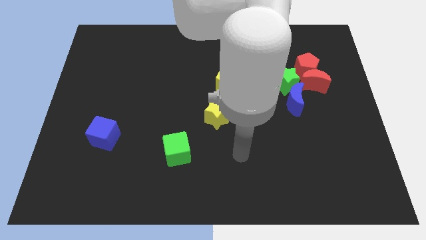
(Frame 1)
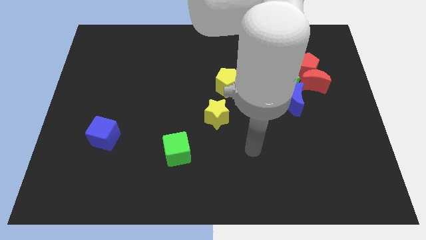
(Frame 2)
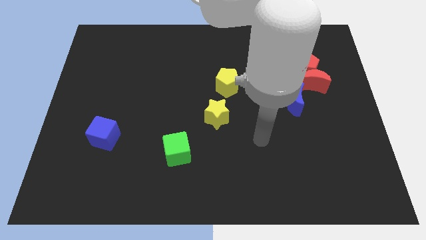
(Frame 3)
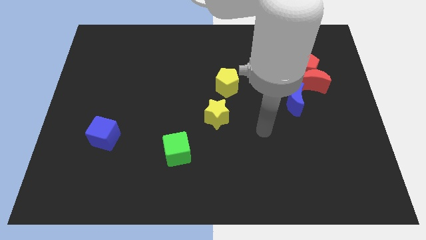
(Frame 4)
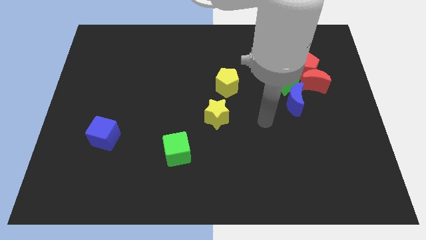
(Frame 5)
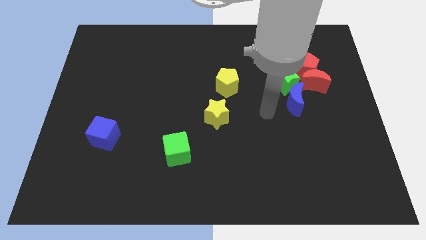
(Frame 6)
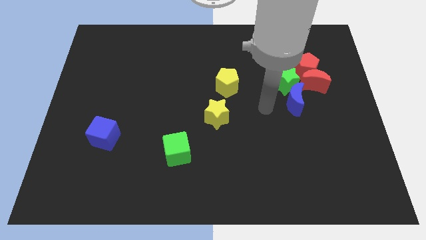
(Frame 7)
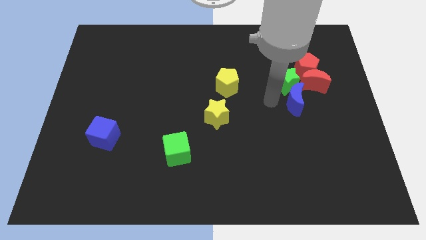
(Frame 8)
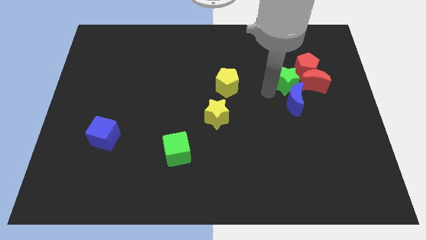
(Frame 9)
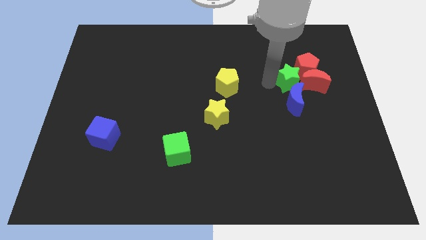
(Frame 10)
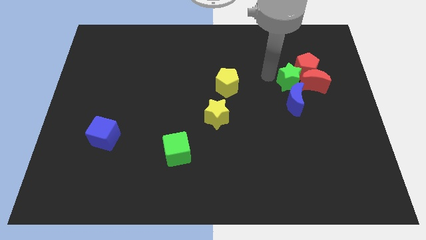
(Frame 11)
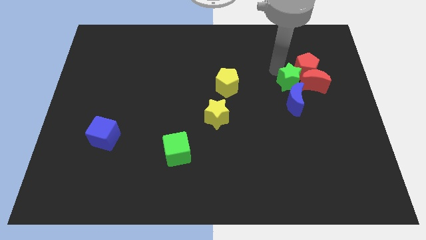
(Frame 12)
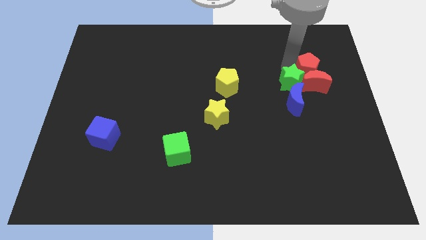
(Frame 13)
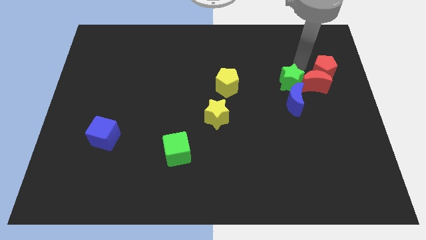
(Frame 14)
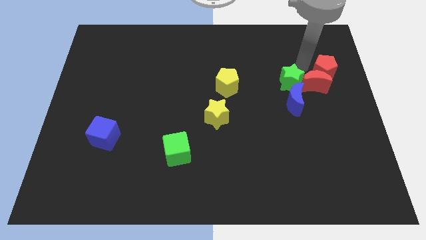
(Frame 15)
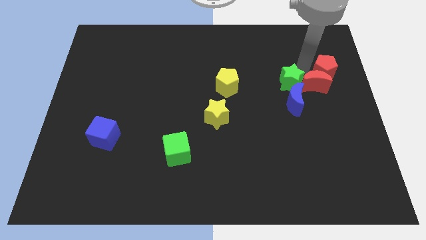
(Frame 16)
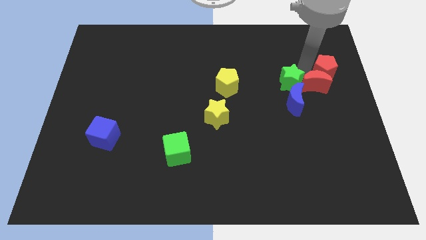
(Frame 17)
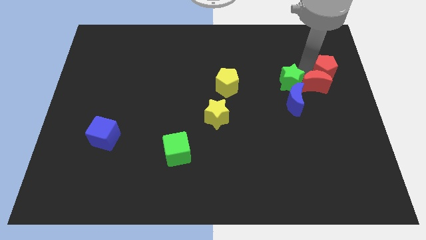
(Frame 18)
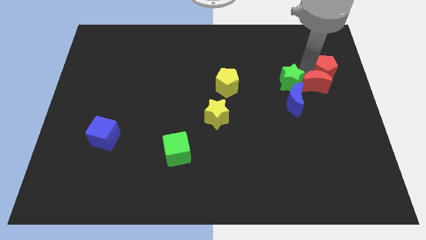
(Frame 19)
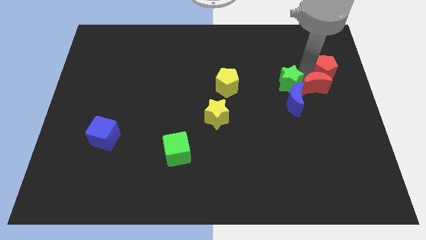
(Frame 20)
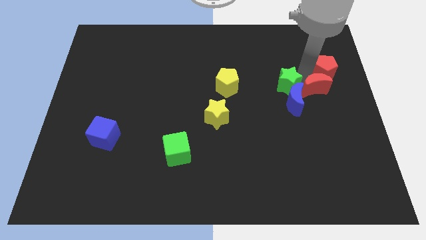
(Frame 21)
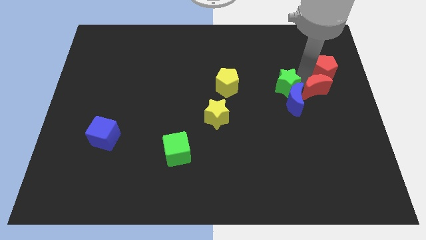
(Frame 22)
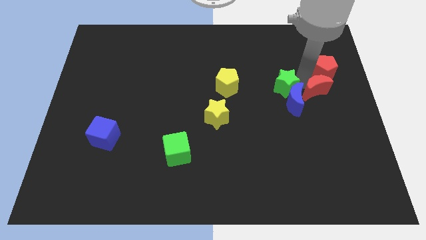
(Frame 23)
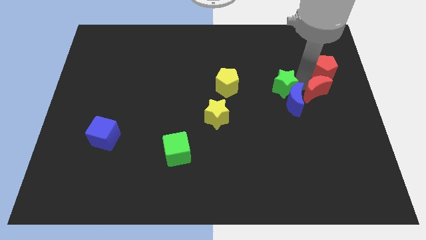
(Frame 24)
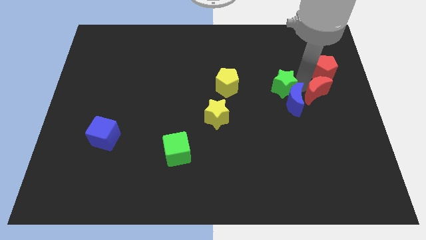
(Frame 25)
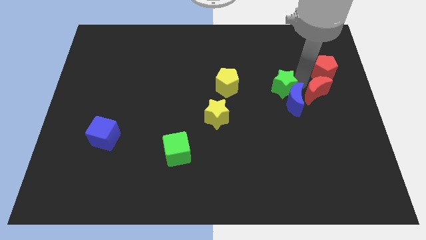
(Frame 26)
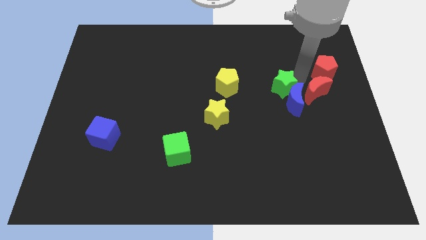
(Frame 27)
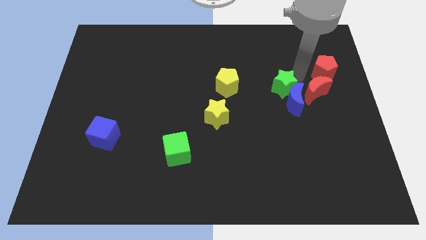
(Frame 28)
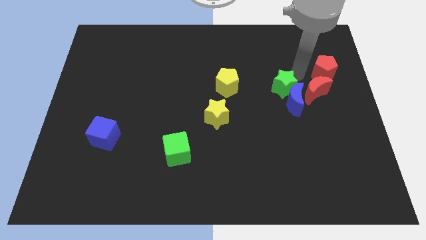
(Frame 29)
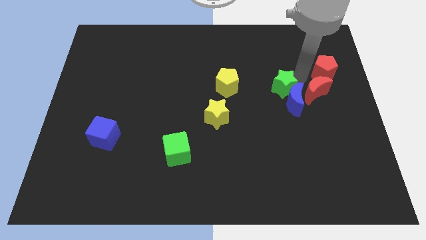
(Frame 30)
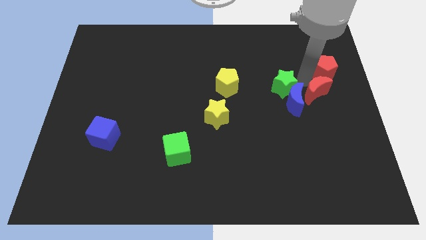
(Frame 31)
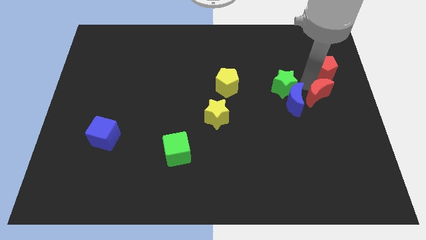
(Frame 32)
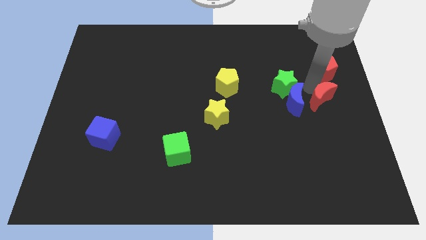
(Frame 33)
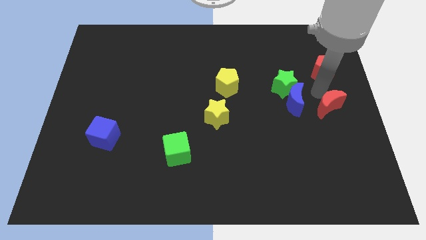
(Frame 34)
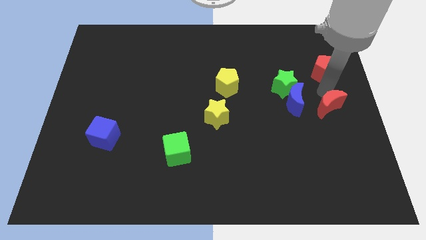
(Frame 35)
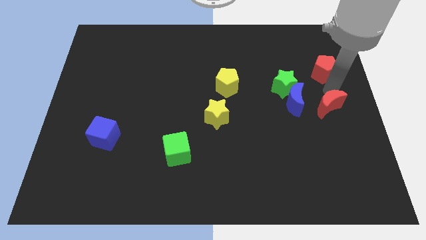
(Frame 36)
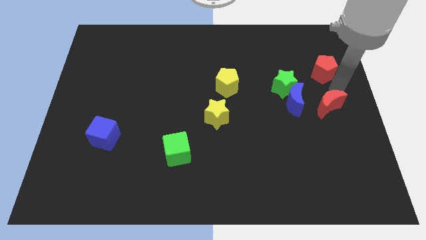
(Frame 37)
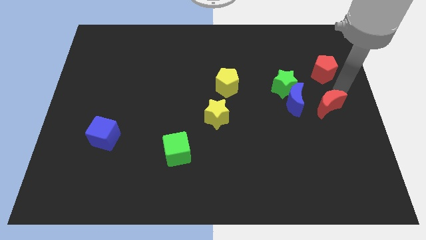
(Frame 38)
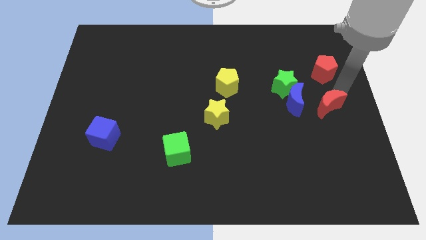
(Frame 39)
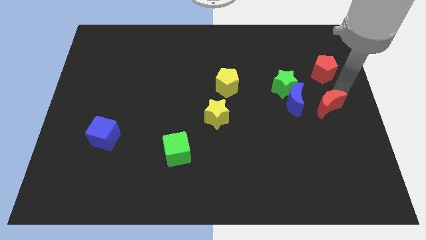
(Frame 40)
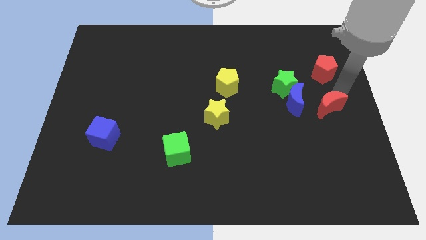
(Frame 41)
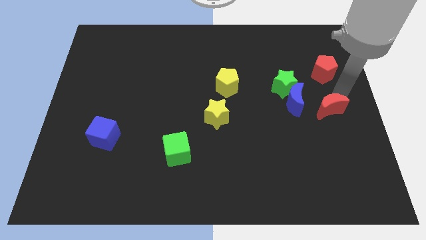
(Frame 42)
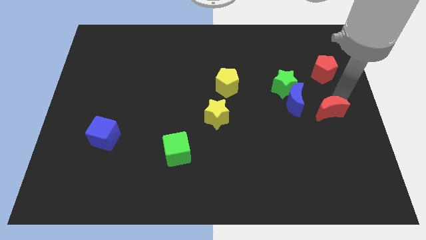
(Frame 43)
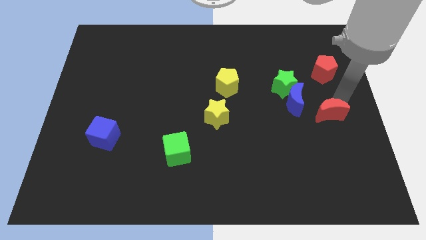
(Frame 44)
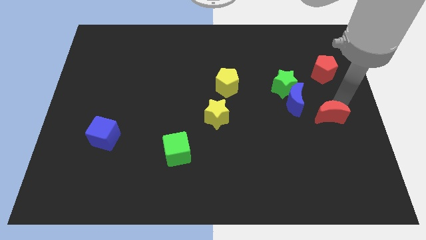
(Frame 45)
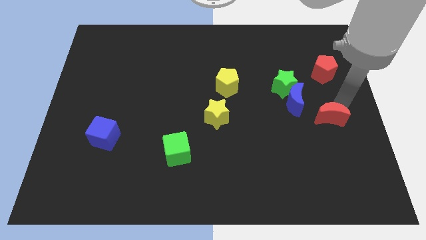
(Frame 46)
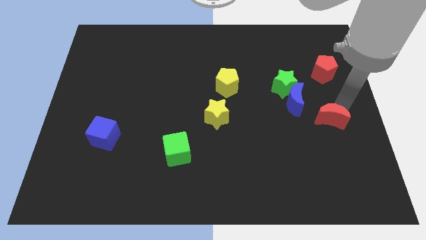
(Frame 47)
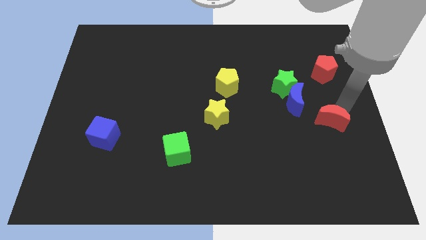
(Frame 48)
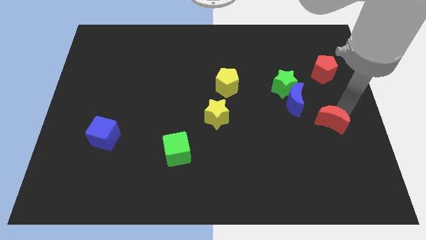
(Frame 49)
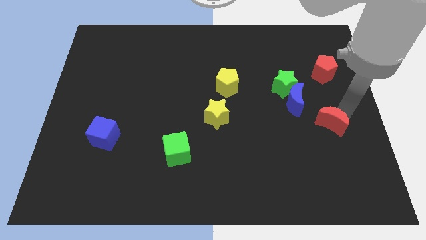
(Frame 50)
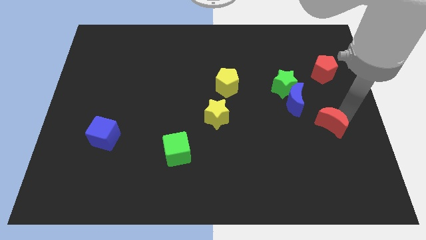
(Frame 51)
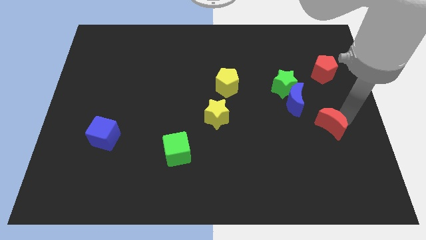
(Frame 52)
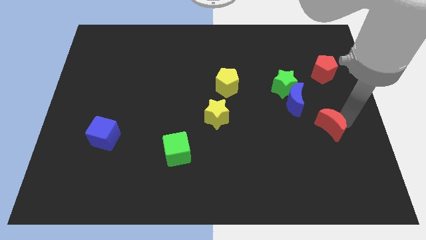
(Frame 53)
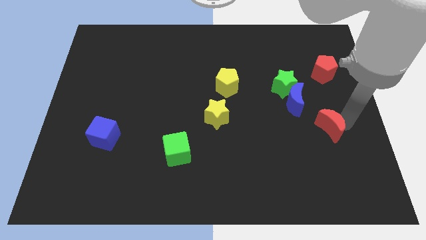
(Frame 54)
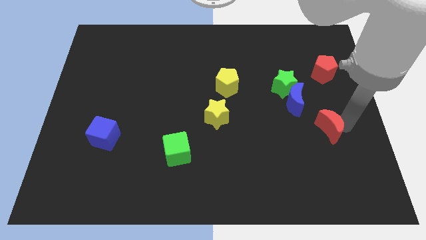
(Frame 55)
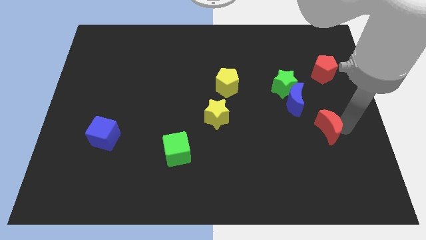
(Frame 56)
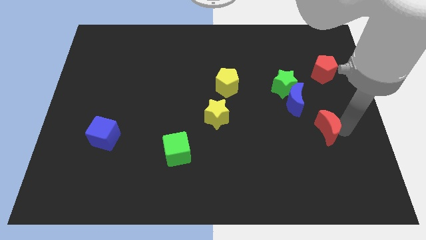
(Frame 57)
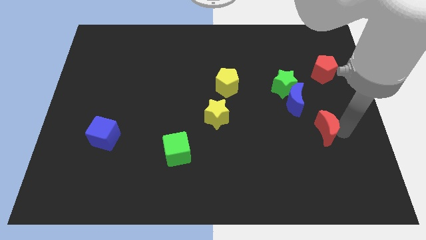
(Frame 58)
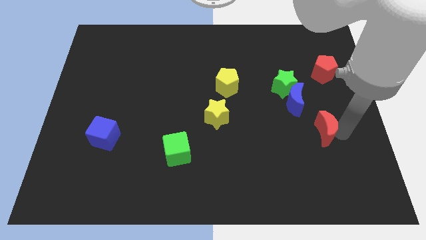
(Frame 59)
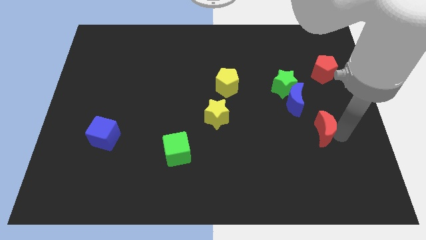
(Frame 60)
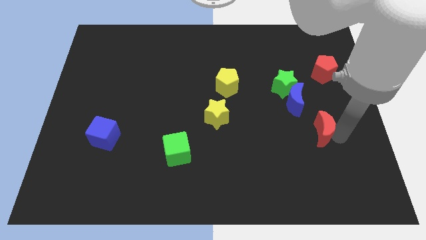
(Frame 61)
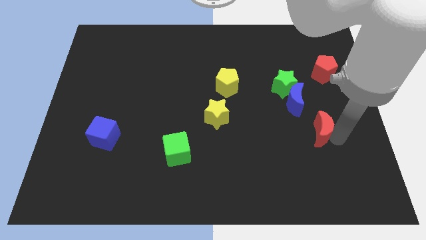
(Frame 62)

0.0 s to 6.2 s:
slide the red moon to the bottom side of the blue moon

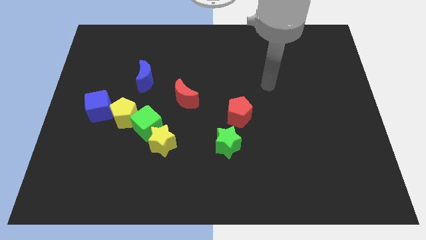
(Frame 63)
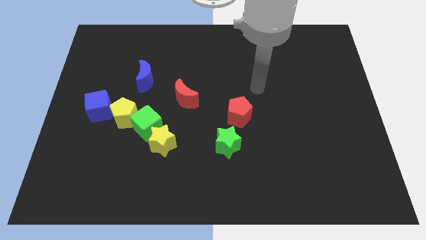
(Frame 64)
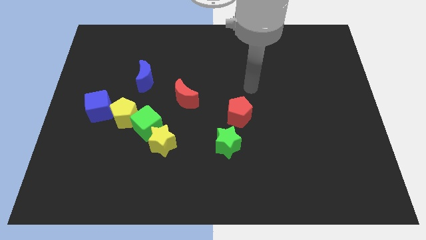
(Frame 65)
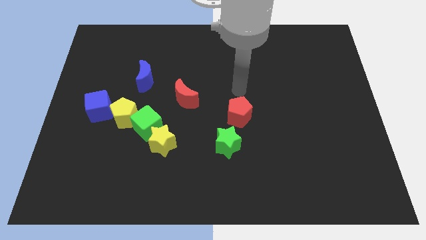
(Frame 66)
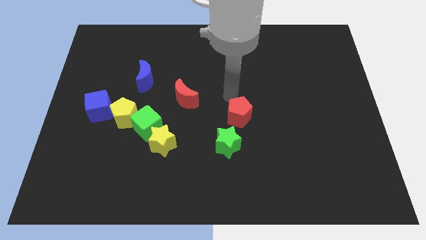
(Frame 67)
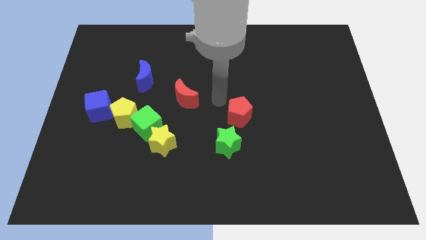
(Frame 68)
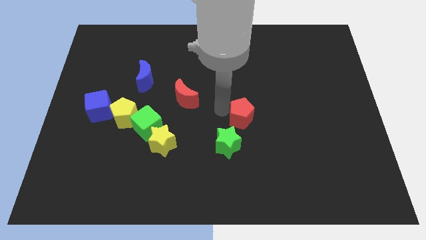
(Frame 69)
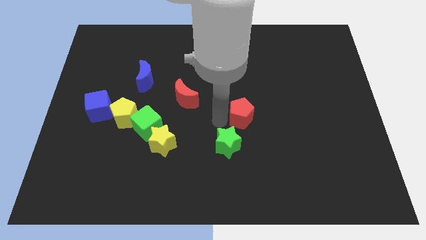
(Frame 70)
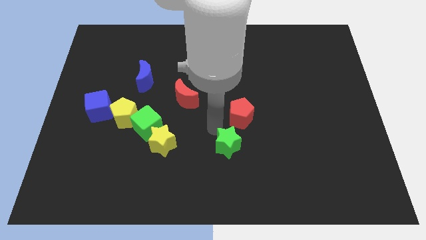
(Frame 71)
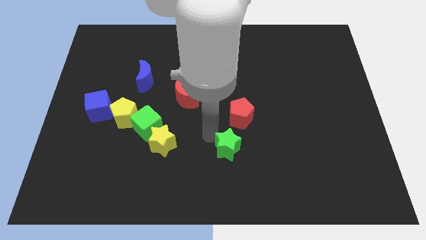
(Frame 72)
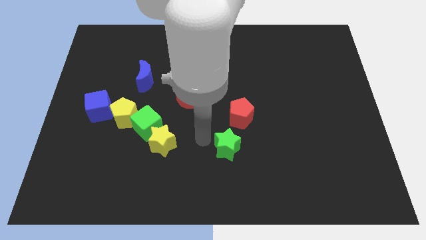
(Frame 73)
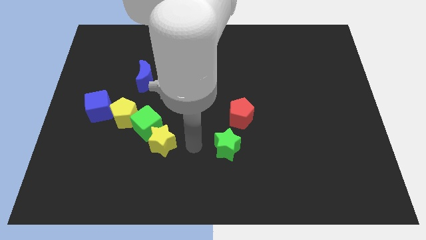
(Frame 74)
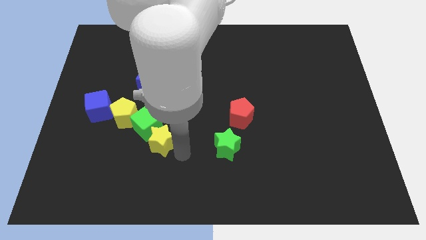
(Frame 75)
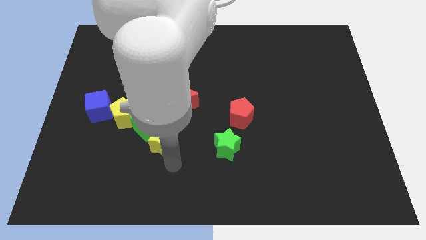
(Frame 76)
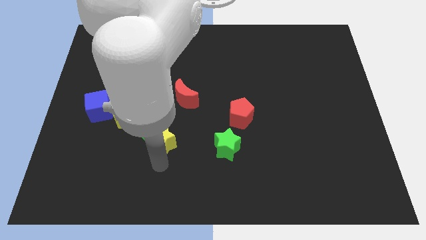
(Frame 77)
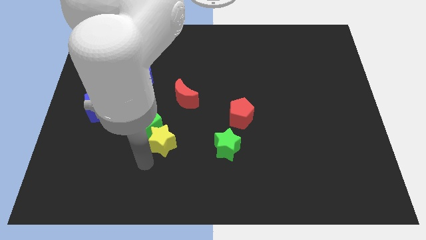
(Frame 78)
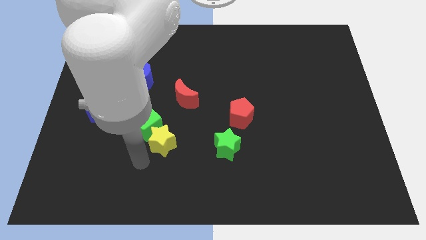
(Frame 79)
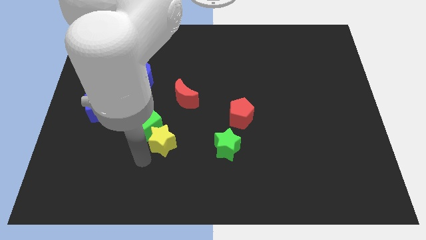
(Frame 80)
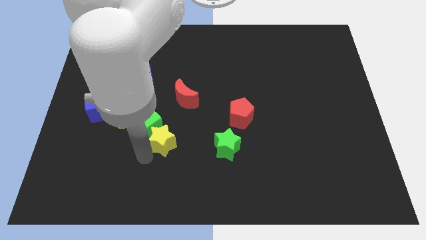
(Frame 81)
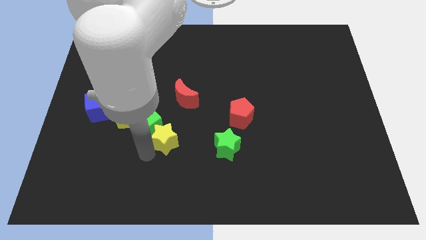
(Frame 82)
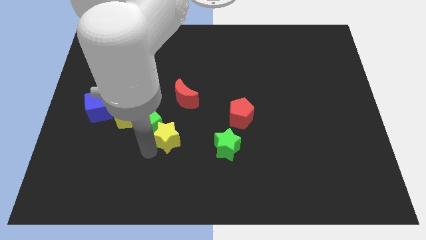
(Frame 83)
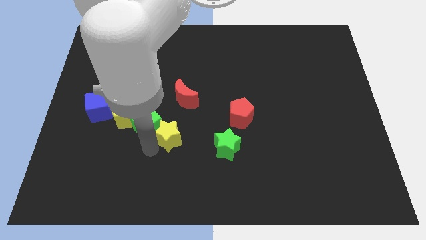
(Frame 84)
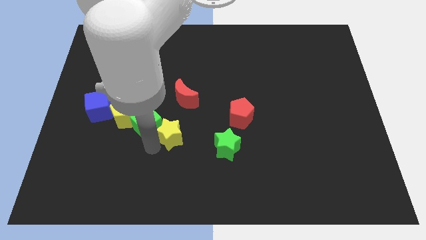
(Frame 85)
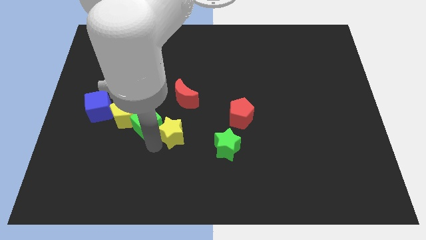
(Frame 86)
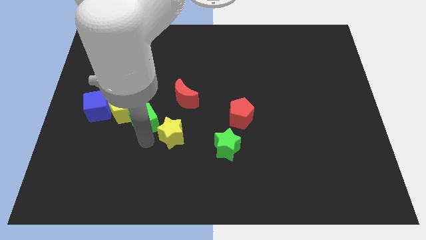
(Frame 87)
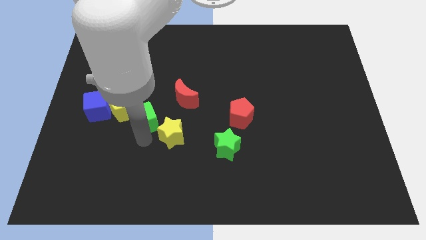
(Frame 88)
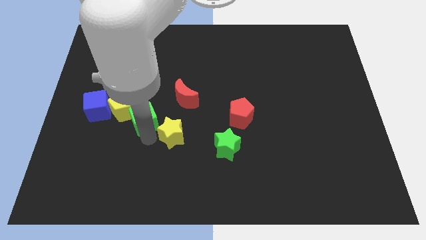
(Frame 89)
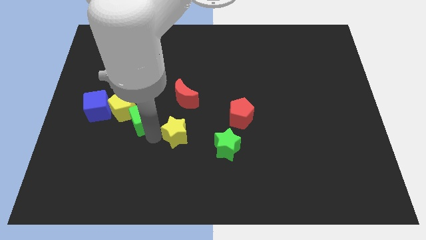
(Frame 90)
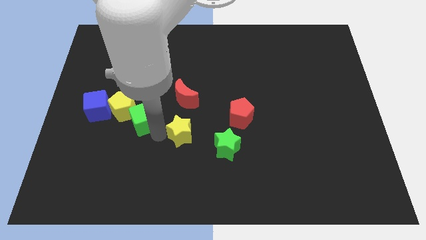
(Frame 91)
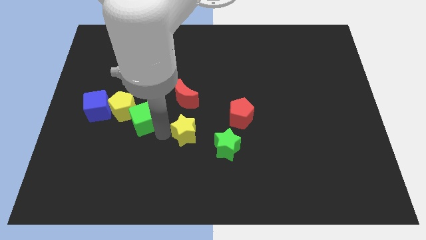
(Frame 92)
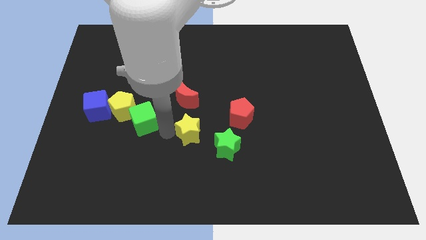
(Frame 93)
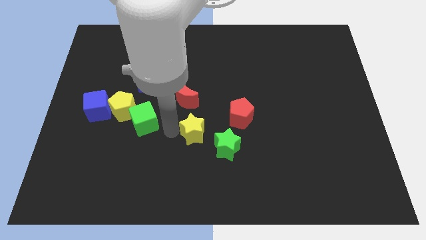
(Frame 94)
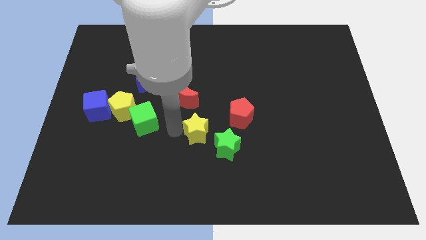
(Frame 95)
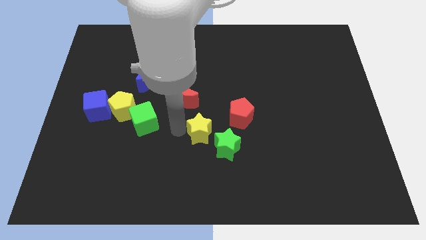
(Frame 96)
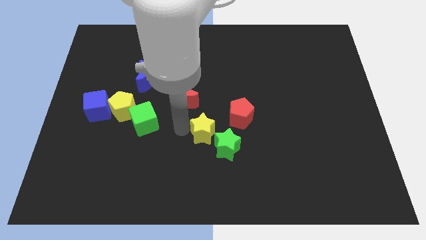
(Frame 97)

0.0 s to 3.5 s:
put the yellow star above the green star
